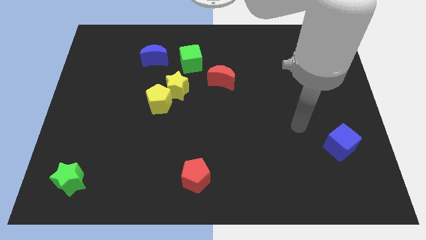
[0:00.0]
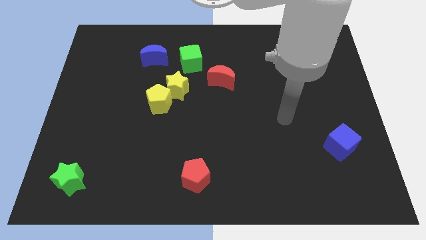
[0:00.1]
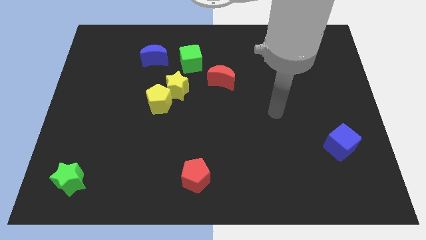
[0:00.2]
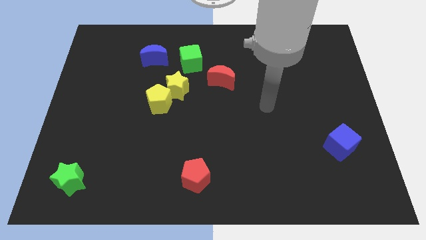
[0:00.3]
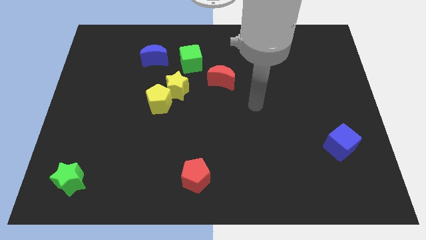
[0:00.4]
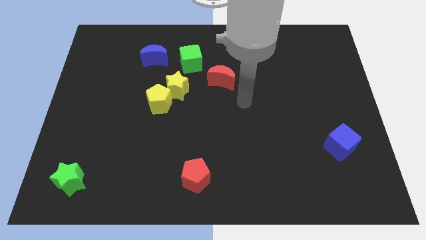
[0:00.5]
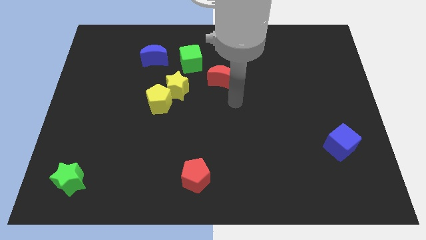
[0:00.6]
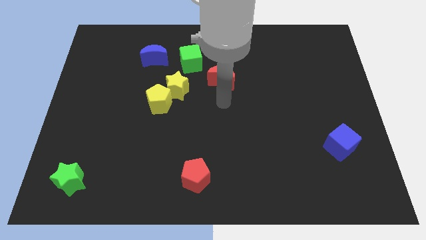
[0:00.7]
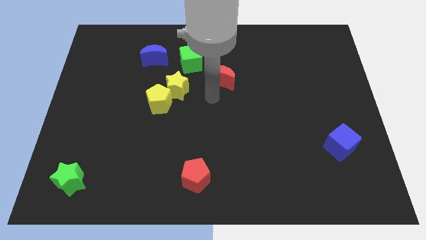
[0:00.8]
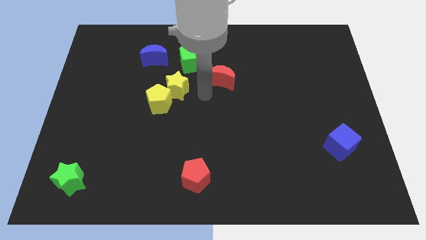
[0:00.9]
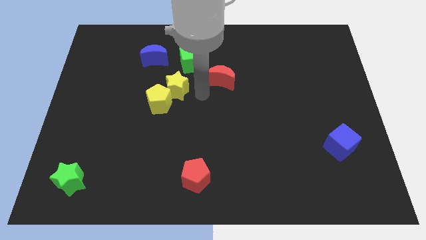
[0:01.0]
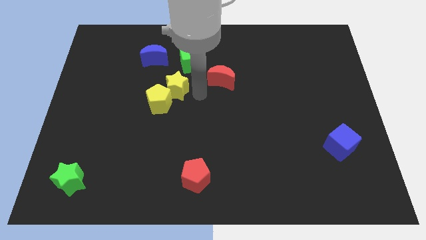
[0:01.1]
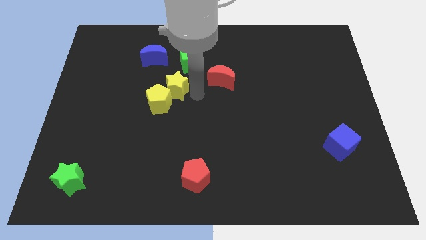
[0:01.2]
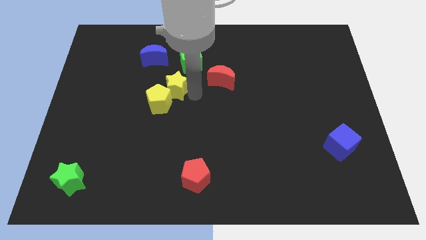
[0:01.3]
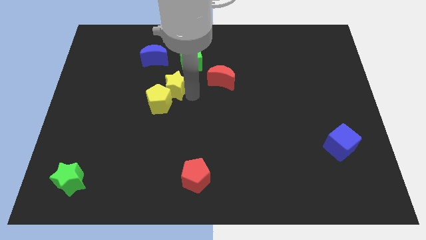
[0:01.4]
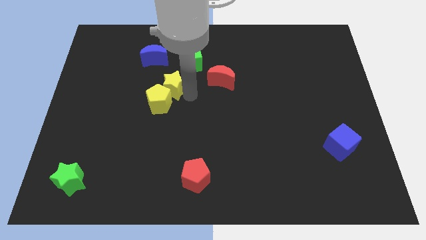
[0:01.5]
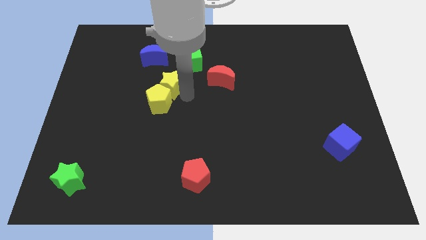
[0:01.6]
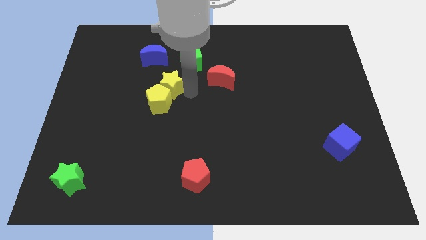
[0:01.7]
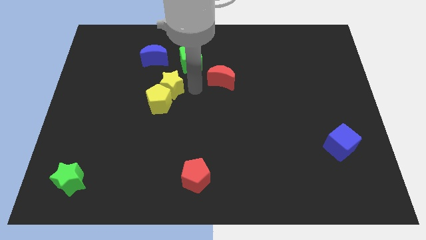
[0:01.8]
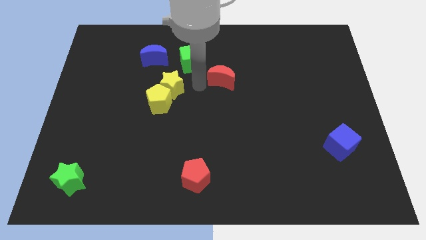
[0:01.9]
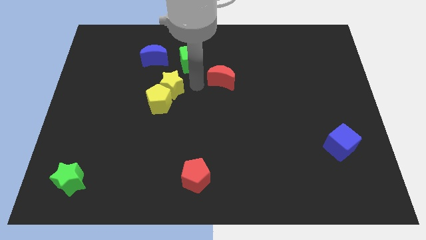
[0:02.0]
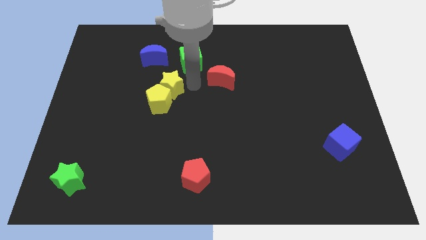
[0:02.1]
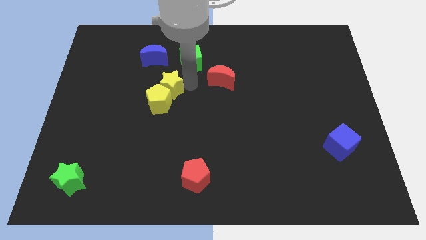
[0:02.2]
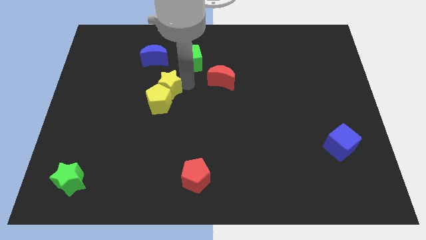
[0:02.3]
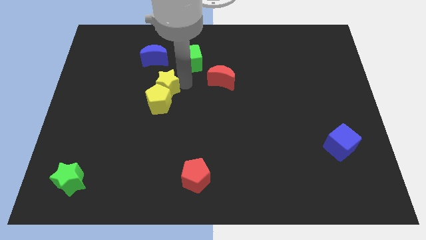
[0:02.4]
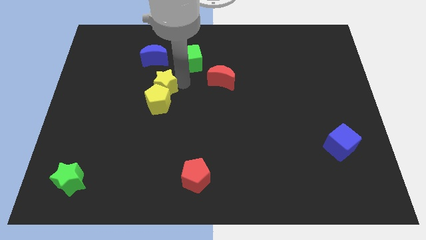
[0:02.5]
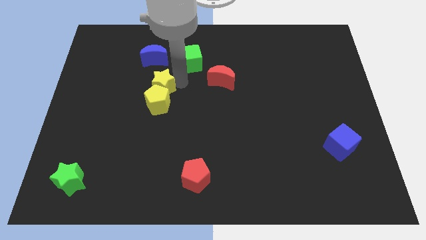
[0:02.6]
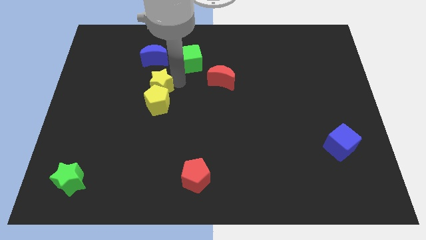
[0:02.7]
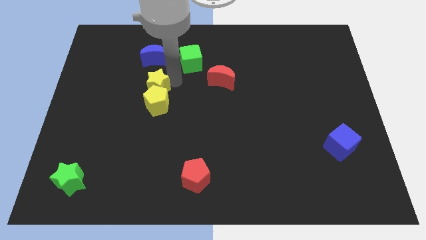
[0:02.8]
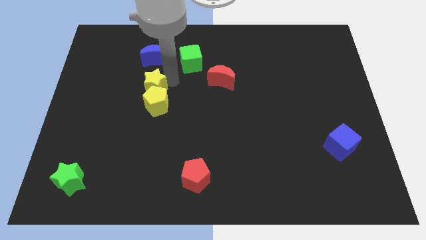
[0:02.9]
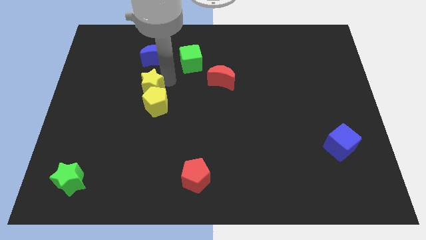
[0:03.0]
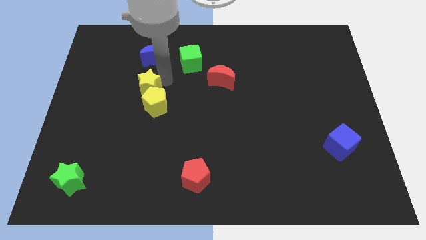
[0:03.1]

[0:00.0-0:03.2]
move the yellow star somewhat left

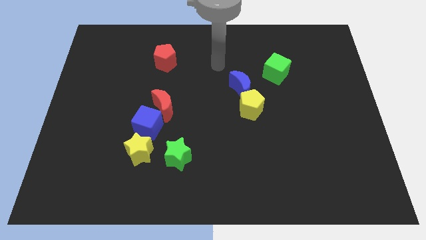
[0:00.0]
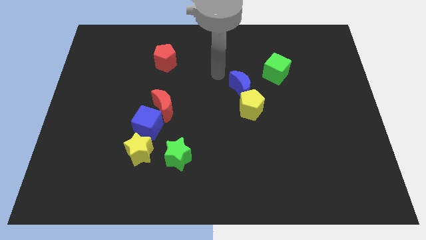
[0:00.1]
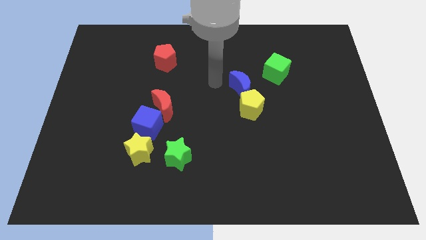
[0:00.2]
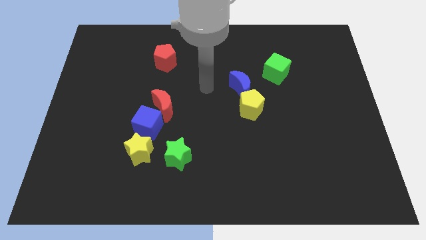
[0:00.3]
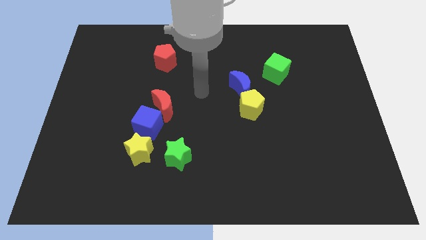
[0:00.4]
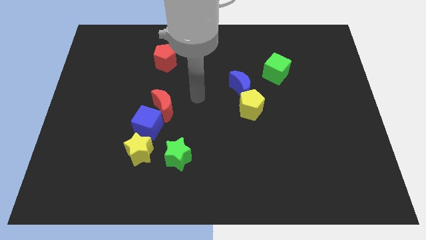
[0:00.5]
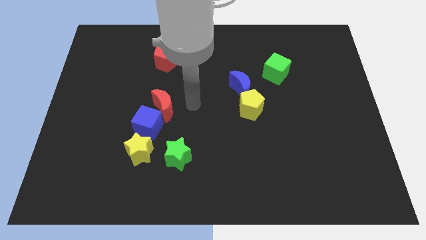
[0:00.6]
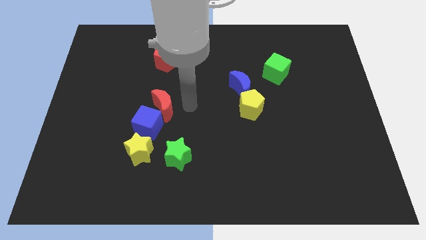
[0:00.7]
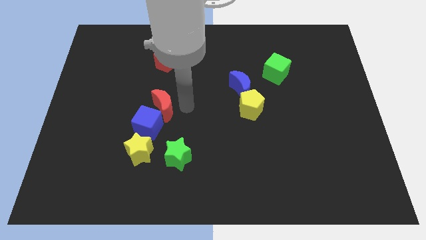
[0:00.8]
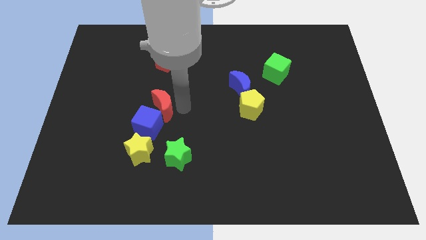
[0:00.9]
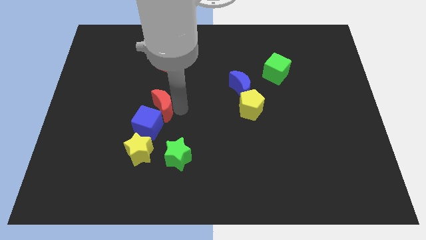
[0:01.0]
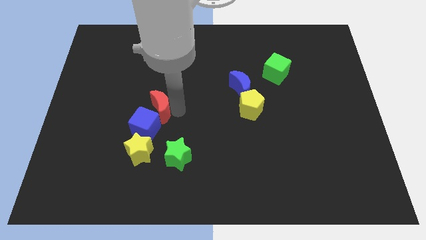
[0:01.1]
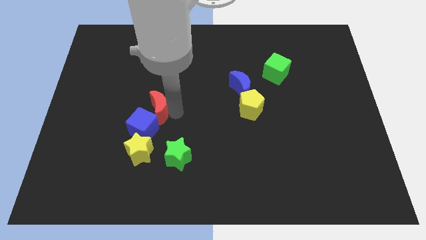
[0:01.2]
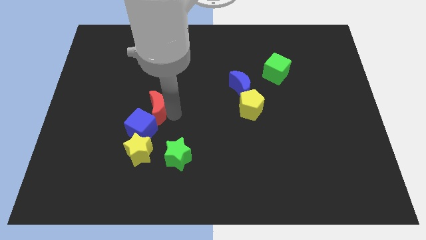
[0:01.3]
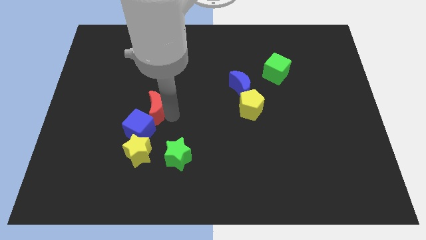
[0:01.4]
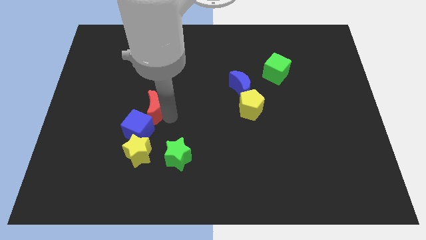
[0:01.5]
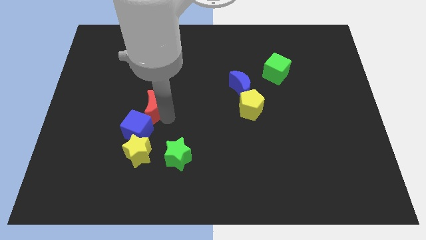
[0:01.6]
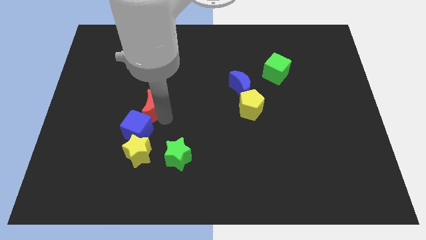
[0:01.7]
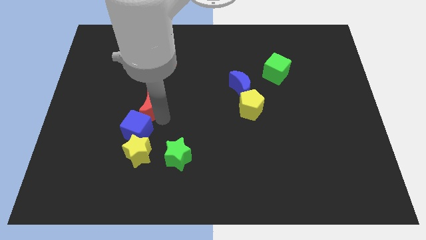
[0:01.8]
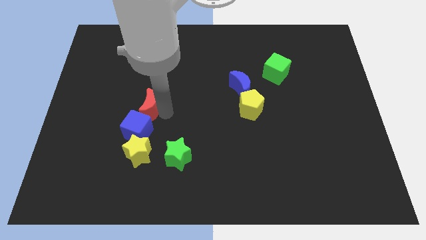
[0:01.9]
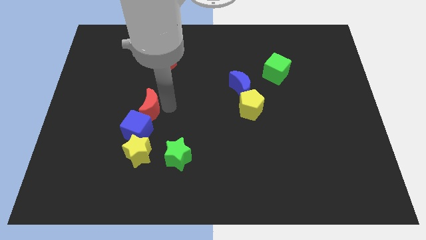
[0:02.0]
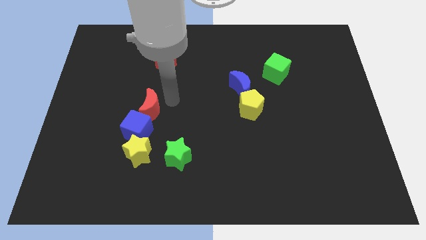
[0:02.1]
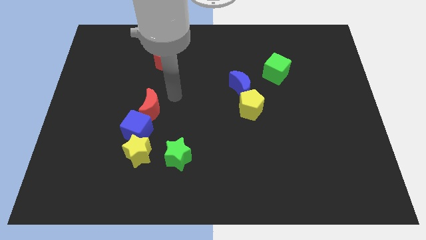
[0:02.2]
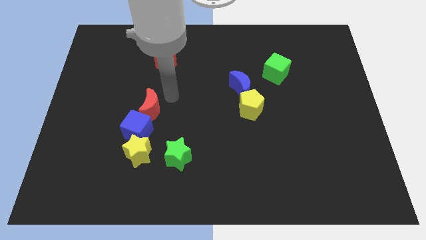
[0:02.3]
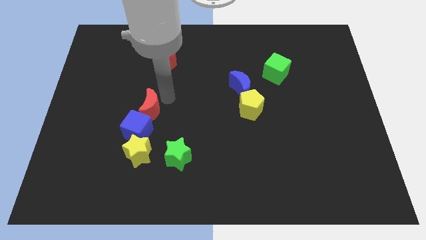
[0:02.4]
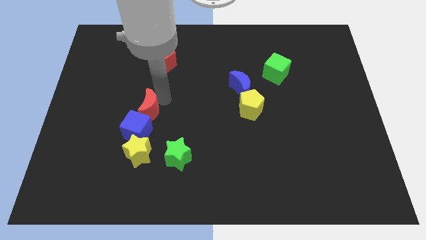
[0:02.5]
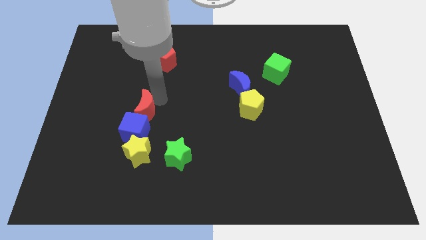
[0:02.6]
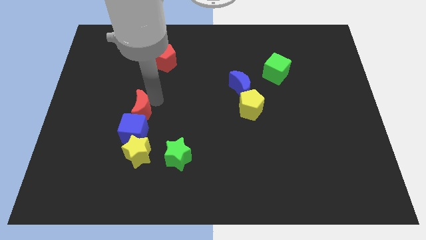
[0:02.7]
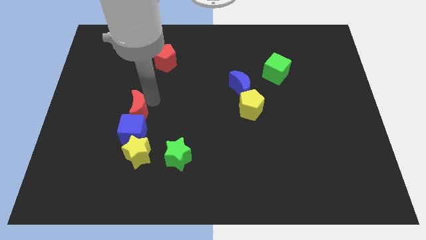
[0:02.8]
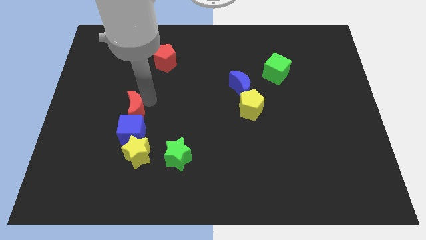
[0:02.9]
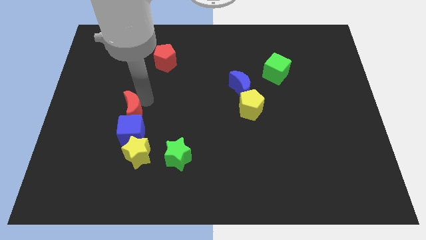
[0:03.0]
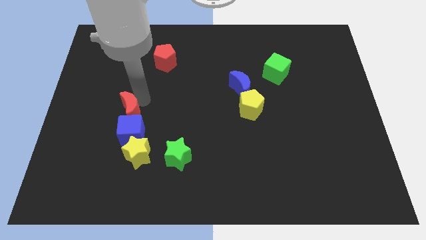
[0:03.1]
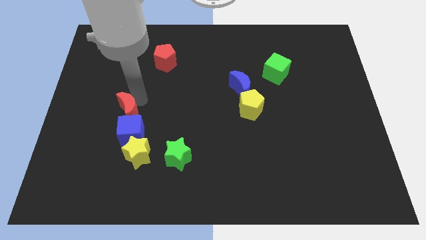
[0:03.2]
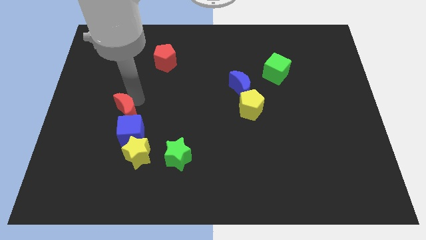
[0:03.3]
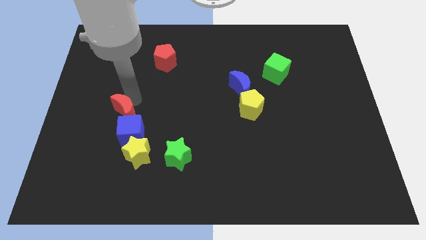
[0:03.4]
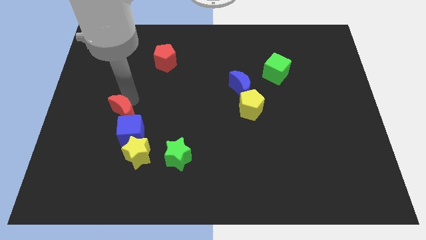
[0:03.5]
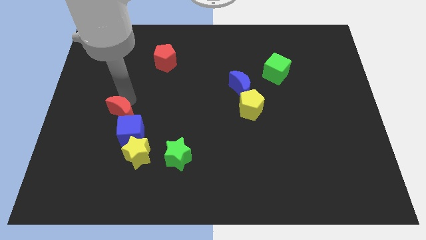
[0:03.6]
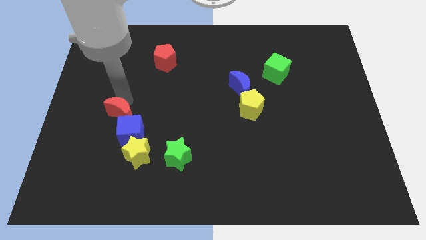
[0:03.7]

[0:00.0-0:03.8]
push the red moon down and left diagonally a little

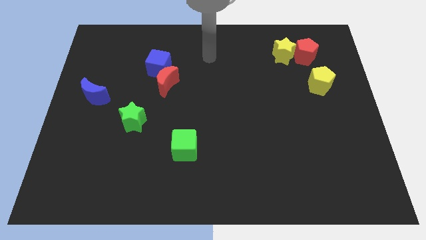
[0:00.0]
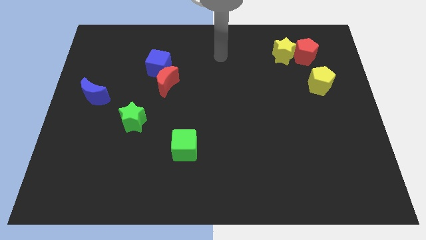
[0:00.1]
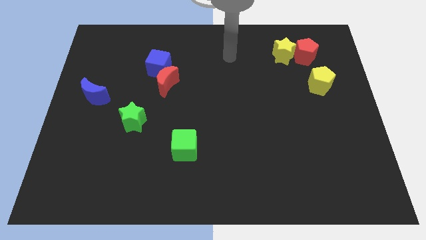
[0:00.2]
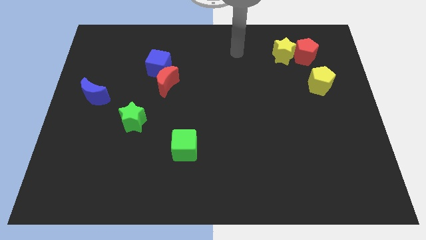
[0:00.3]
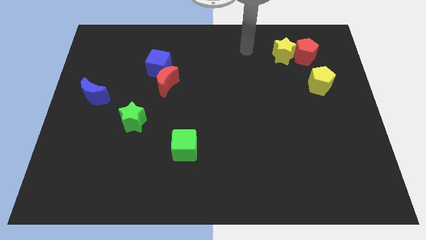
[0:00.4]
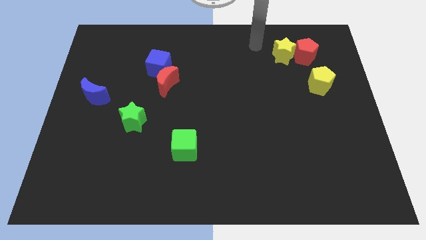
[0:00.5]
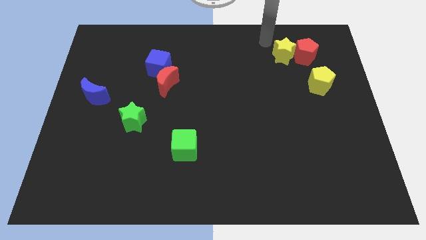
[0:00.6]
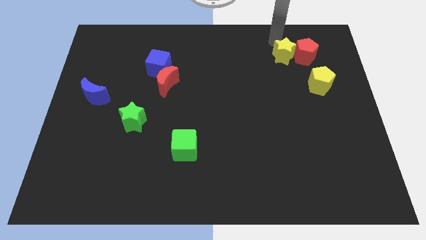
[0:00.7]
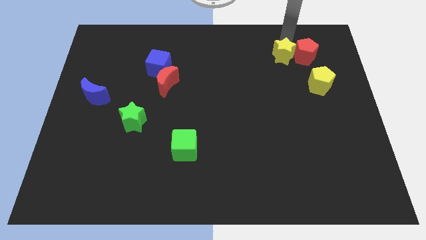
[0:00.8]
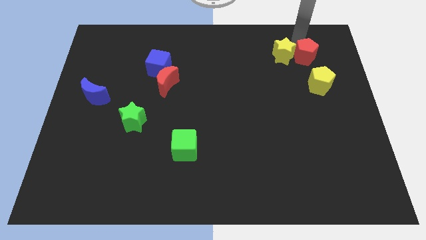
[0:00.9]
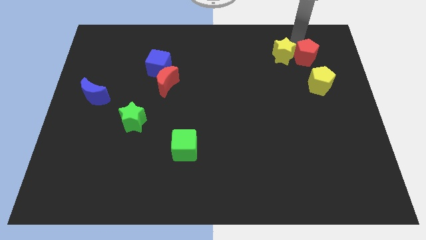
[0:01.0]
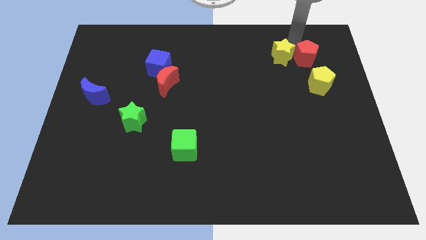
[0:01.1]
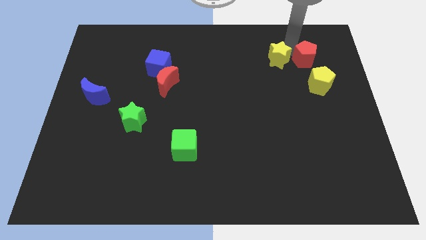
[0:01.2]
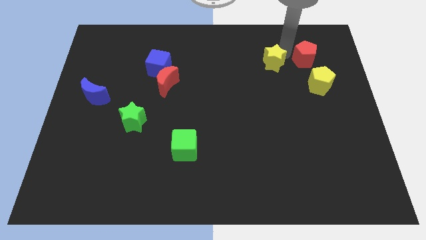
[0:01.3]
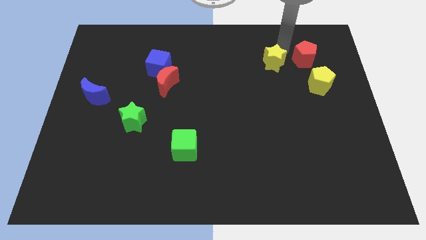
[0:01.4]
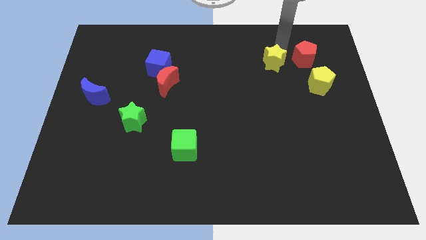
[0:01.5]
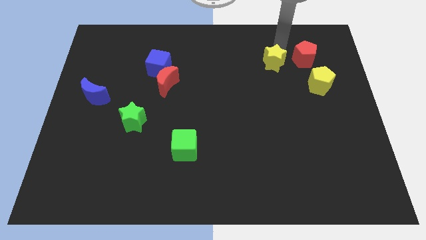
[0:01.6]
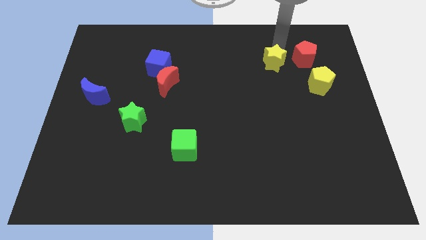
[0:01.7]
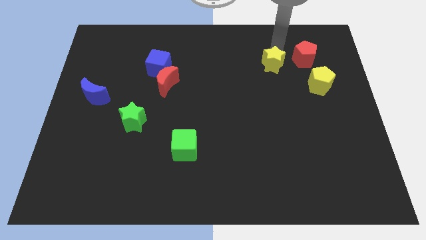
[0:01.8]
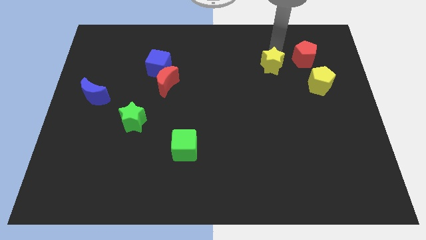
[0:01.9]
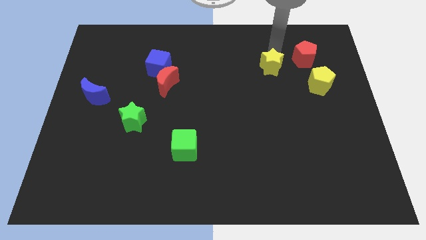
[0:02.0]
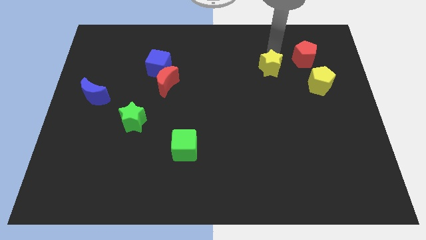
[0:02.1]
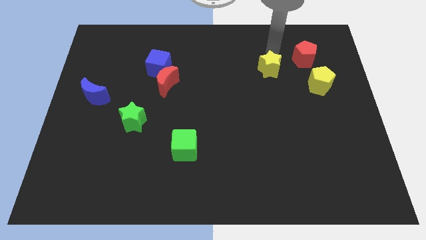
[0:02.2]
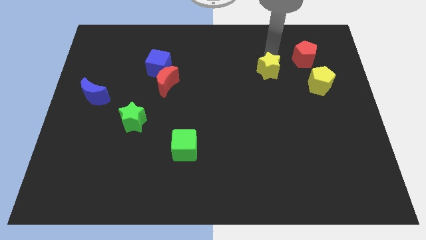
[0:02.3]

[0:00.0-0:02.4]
move the yellow star a bit downwards and to the left diagonally
